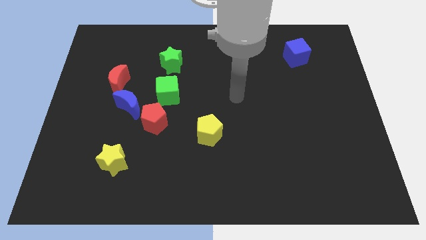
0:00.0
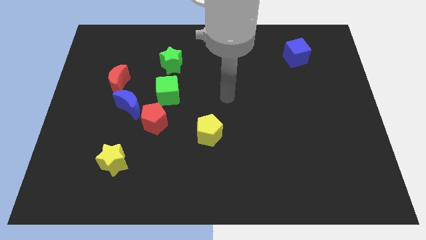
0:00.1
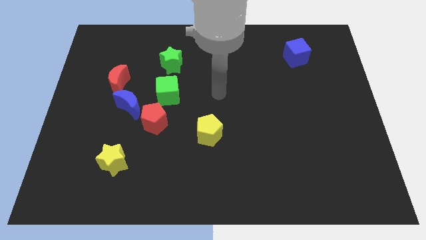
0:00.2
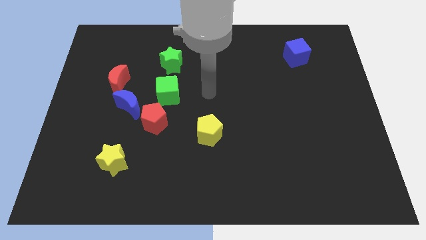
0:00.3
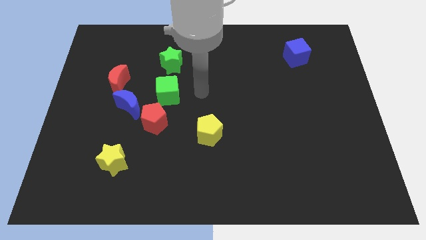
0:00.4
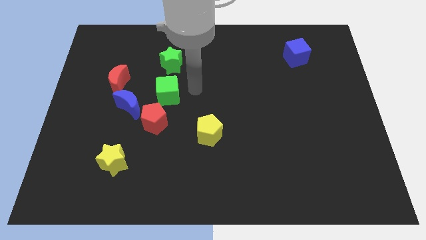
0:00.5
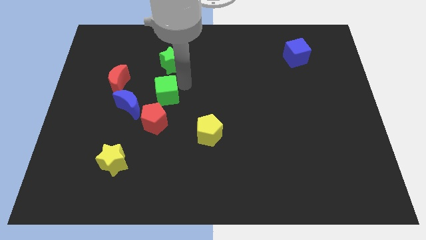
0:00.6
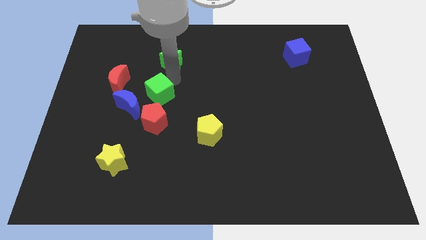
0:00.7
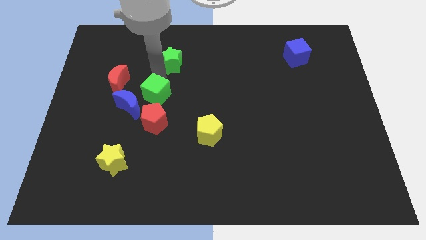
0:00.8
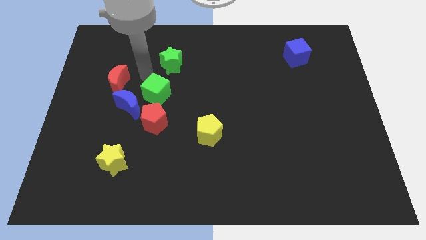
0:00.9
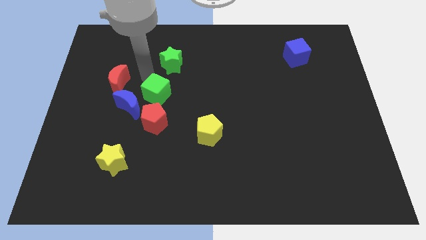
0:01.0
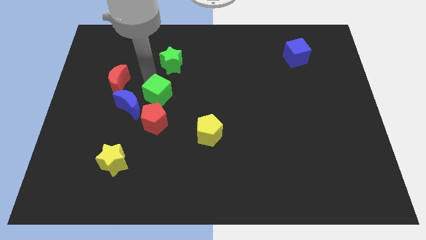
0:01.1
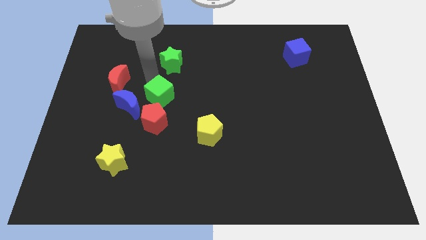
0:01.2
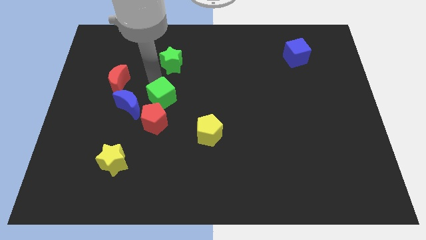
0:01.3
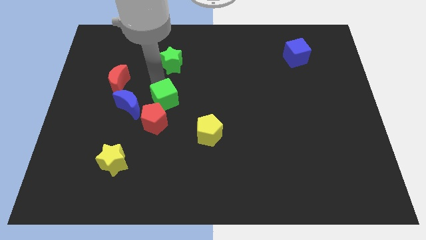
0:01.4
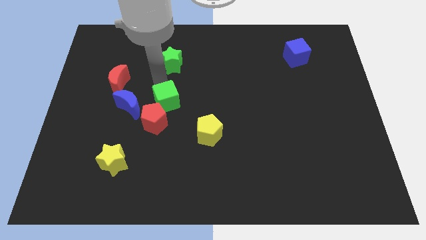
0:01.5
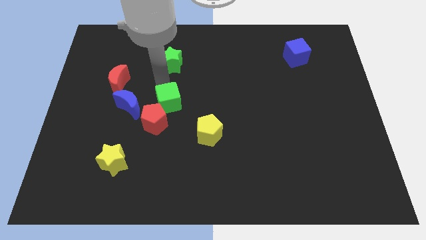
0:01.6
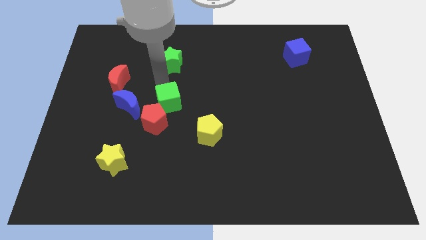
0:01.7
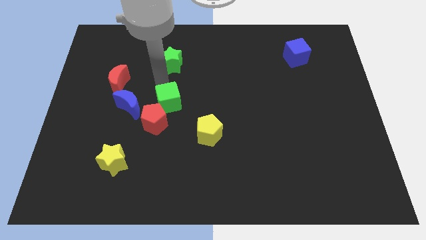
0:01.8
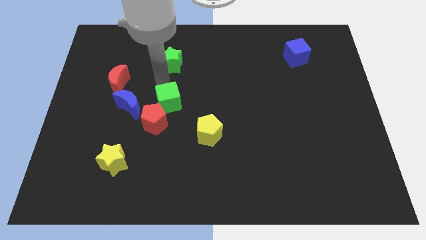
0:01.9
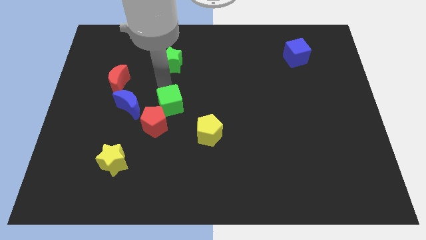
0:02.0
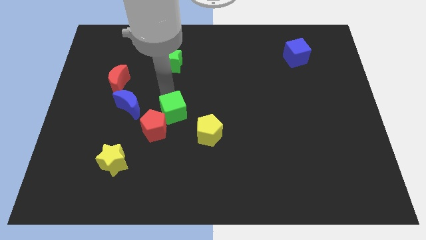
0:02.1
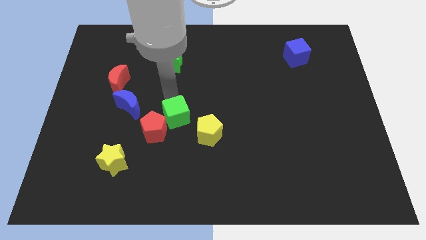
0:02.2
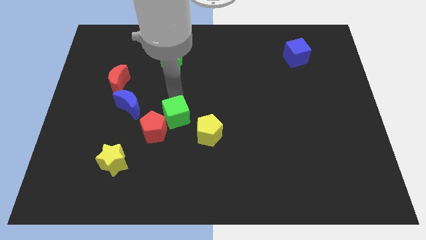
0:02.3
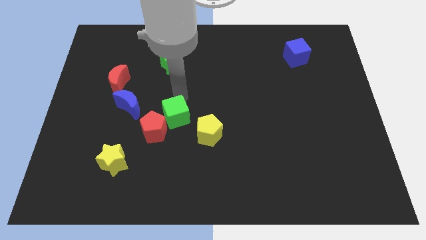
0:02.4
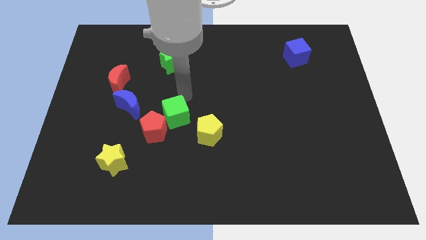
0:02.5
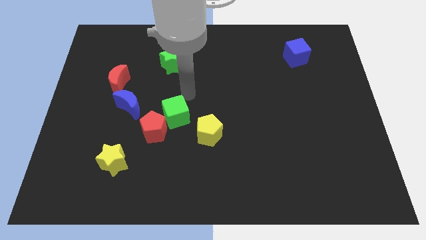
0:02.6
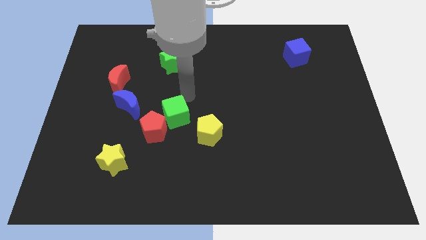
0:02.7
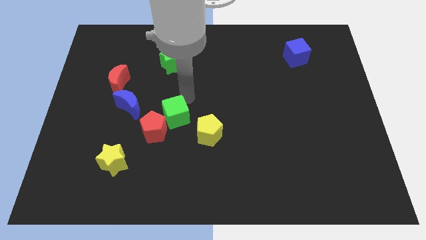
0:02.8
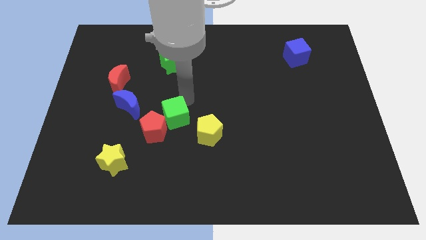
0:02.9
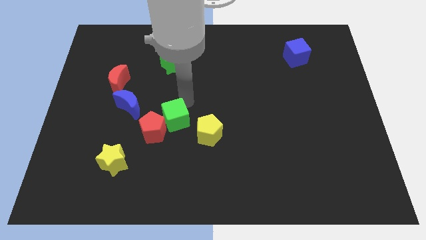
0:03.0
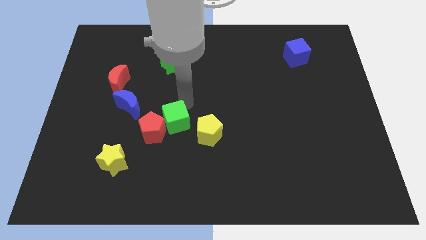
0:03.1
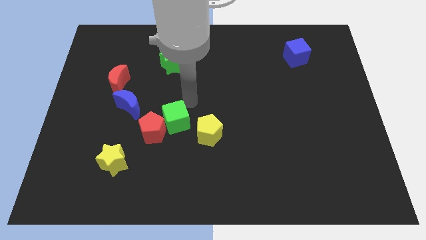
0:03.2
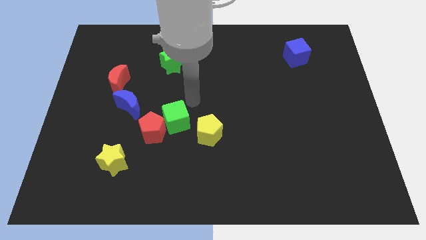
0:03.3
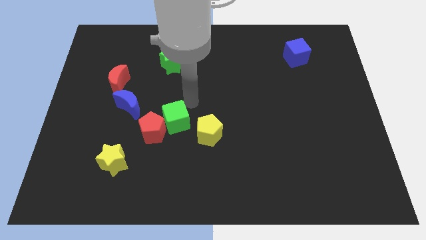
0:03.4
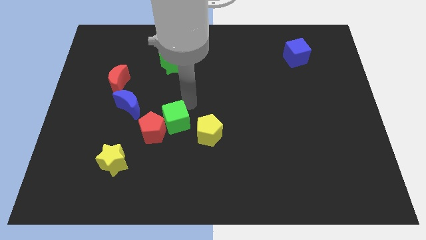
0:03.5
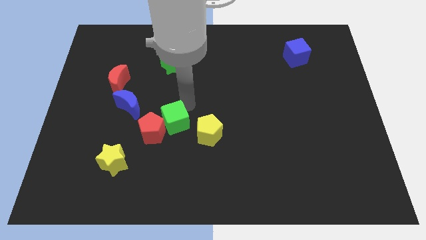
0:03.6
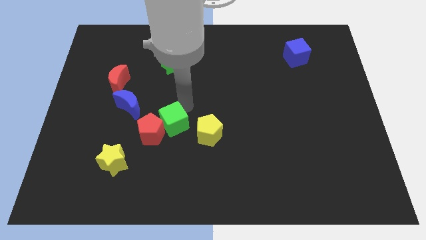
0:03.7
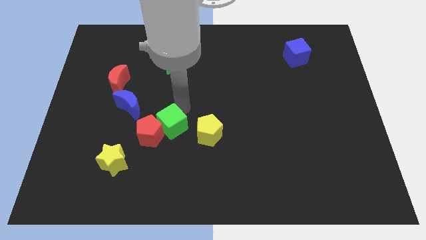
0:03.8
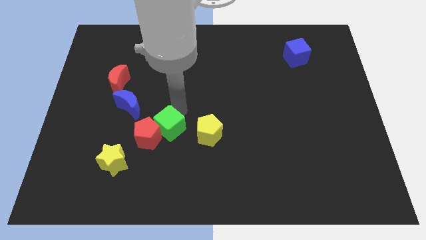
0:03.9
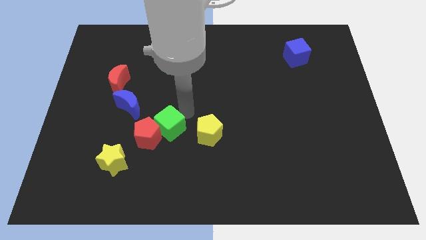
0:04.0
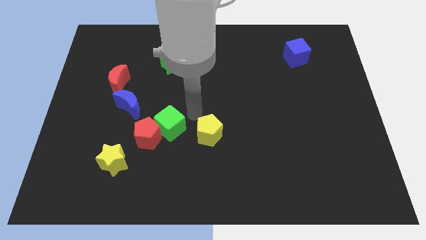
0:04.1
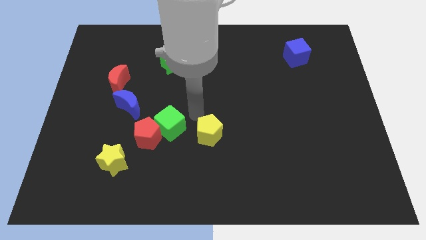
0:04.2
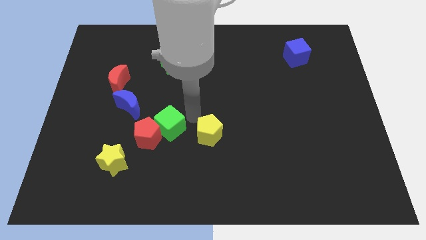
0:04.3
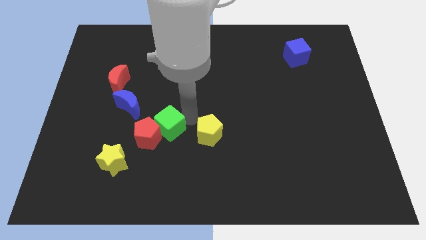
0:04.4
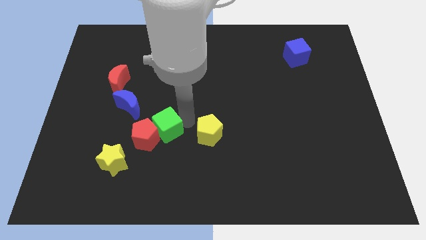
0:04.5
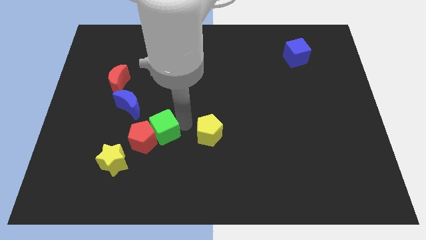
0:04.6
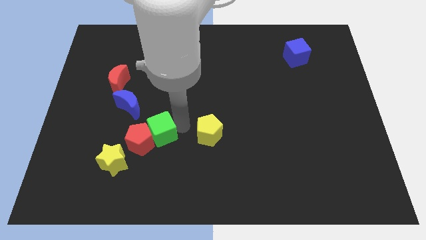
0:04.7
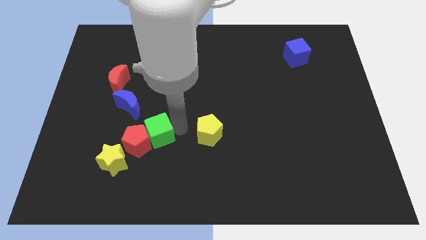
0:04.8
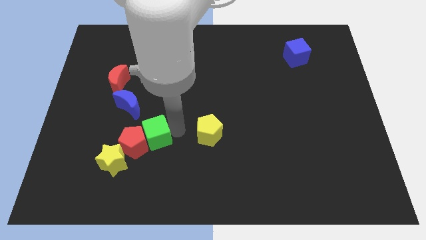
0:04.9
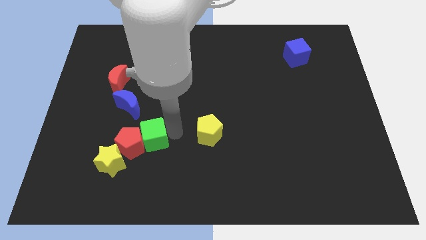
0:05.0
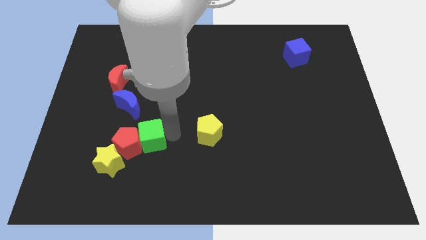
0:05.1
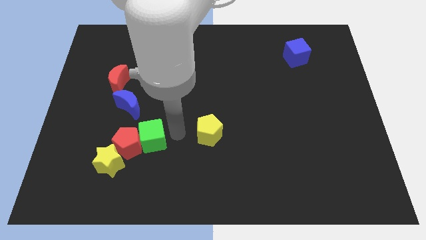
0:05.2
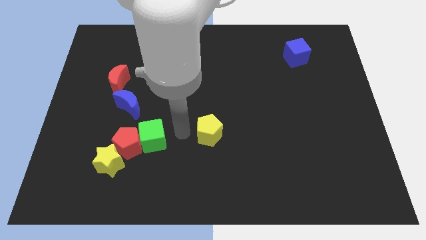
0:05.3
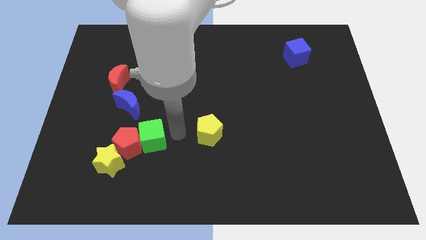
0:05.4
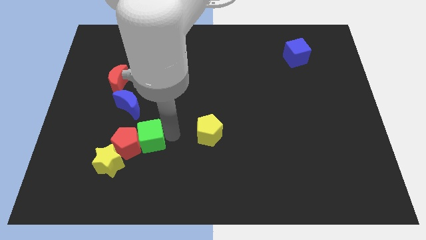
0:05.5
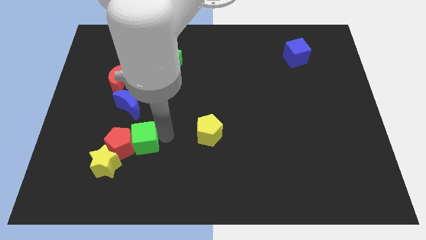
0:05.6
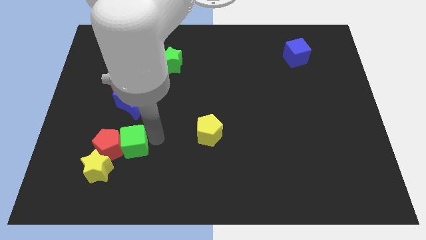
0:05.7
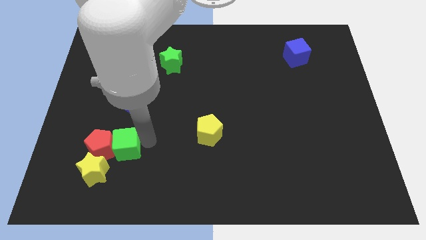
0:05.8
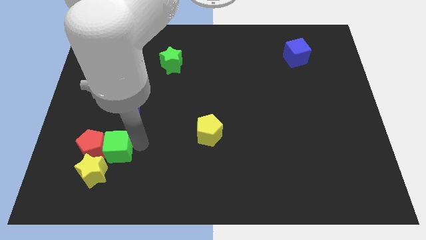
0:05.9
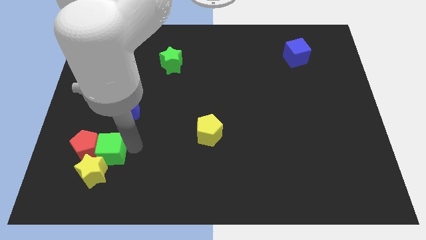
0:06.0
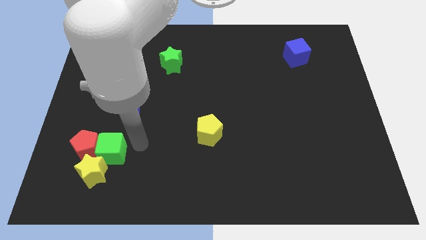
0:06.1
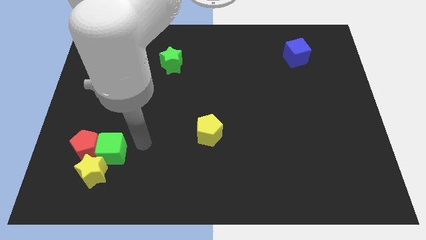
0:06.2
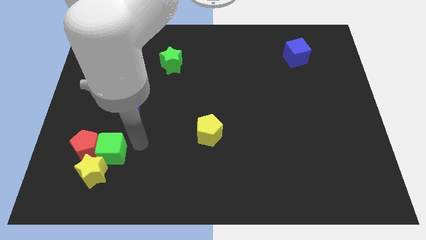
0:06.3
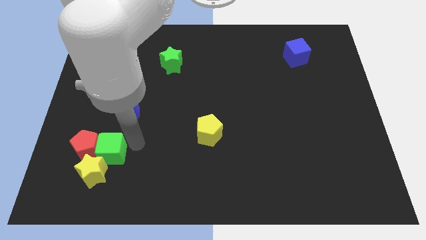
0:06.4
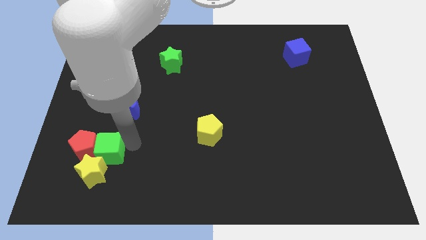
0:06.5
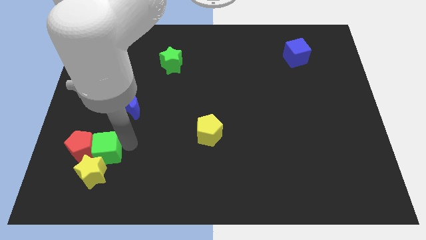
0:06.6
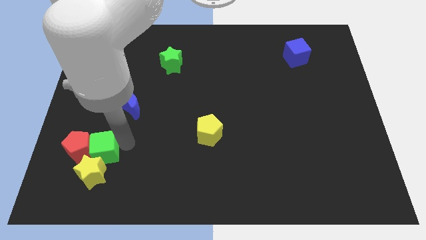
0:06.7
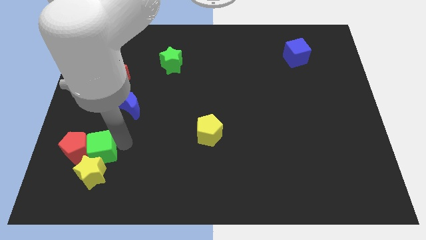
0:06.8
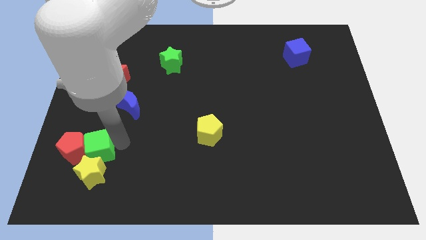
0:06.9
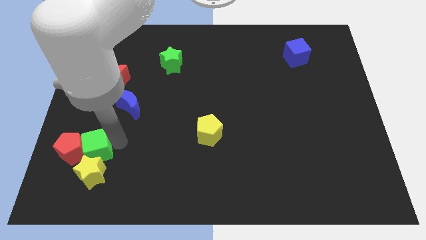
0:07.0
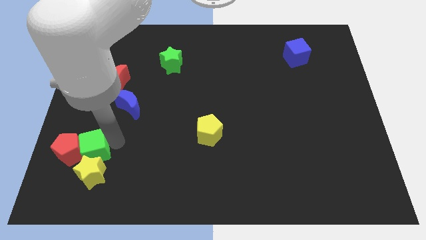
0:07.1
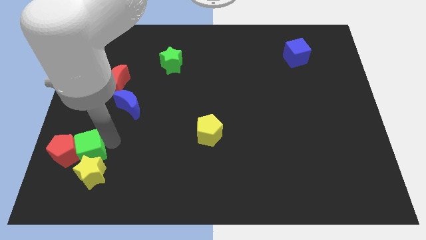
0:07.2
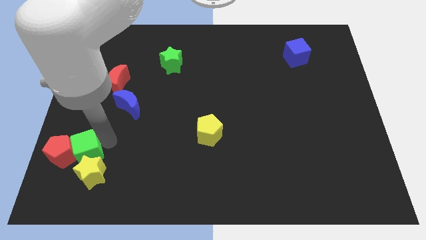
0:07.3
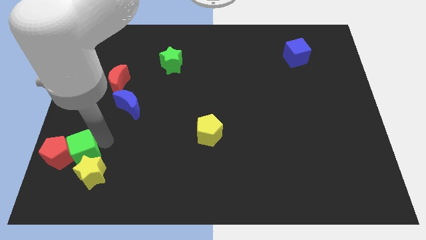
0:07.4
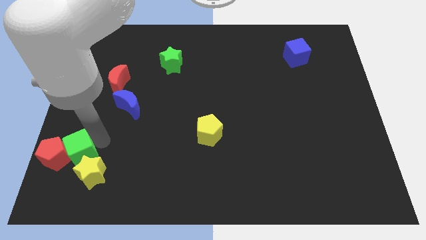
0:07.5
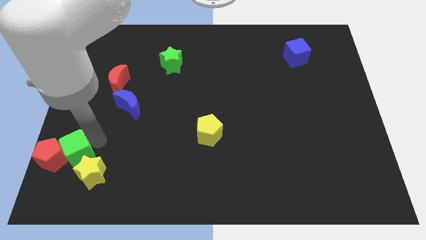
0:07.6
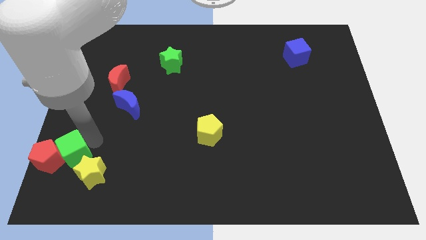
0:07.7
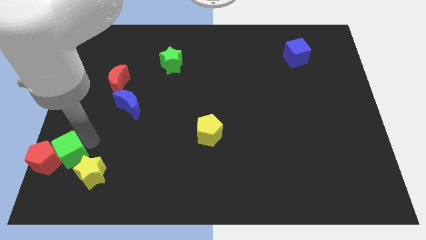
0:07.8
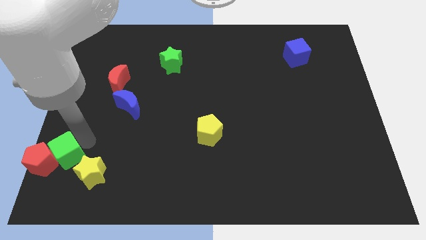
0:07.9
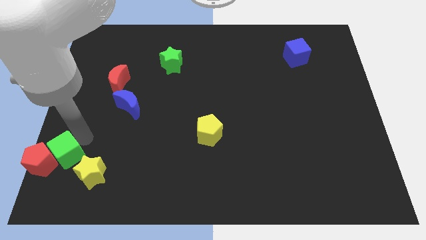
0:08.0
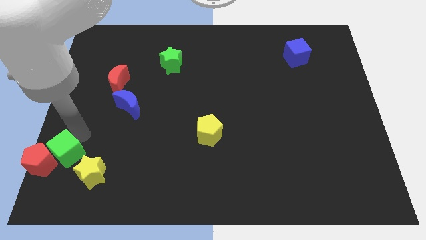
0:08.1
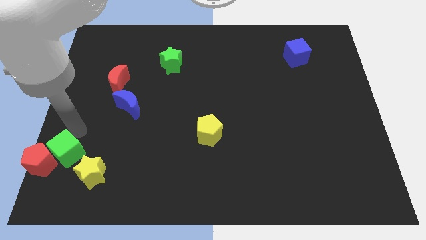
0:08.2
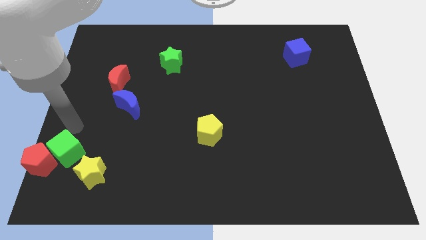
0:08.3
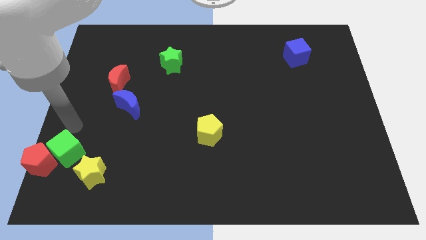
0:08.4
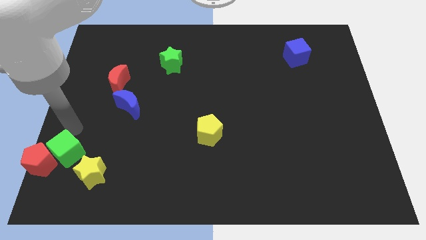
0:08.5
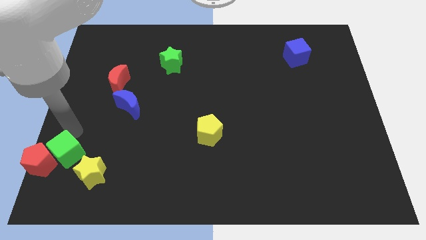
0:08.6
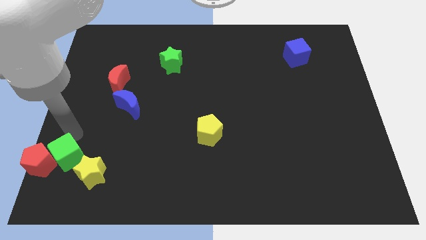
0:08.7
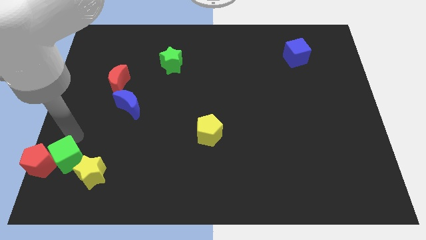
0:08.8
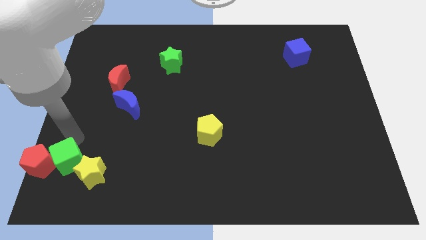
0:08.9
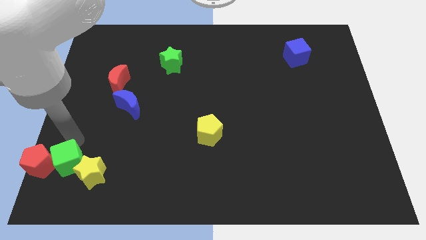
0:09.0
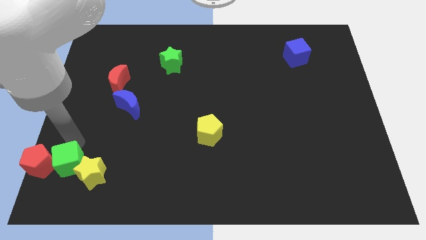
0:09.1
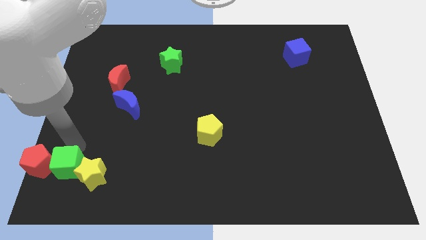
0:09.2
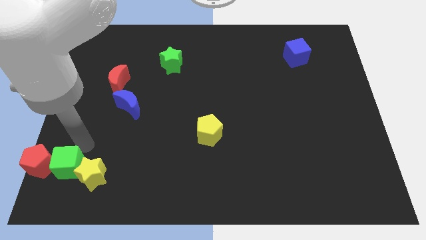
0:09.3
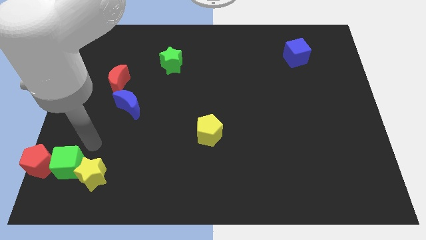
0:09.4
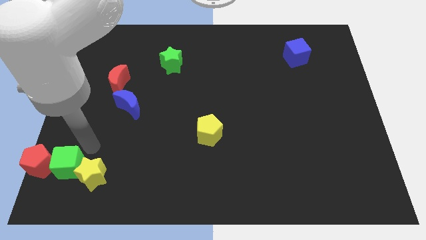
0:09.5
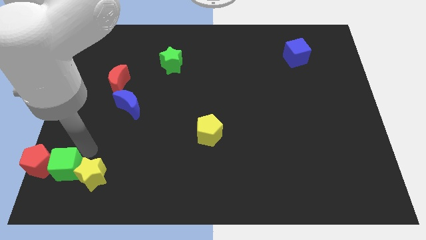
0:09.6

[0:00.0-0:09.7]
slide the green cube to the bottom left of the board
